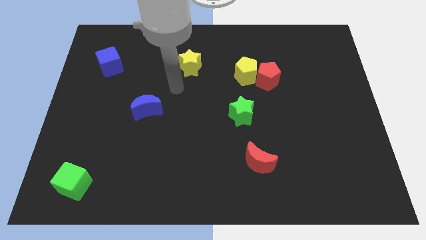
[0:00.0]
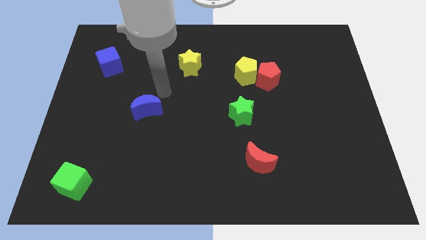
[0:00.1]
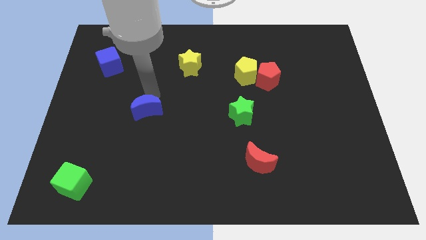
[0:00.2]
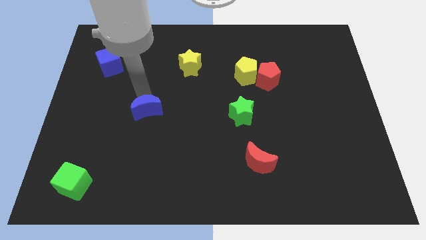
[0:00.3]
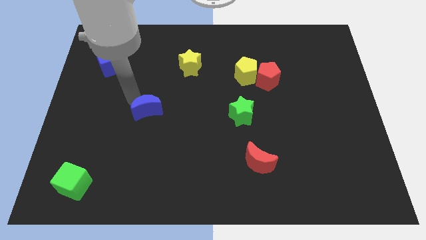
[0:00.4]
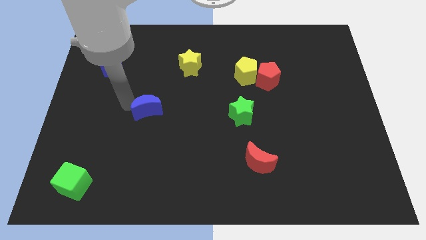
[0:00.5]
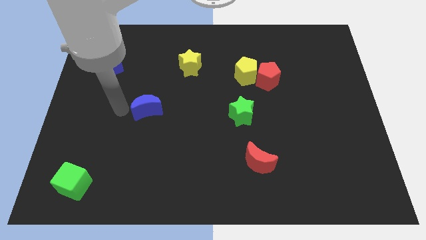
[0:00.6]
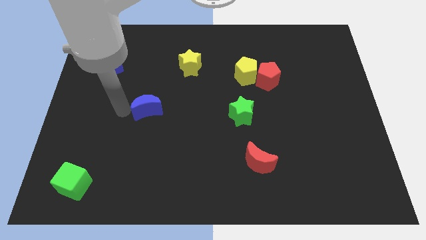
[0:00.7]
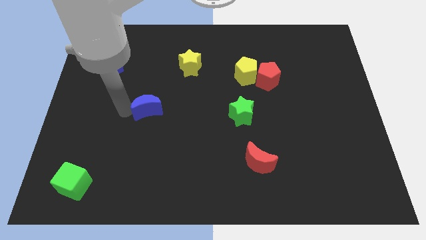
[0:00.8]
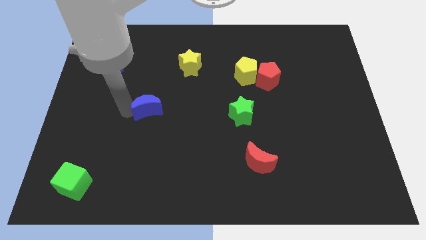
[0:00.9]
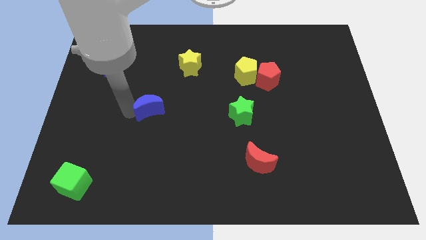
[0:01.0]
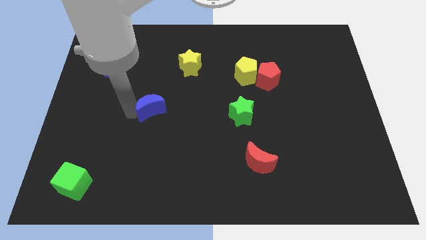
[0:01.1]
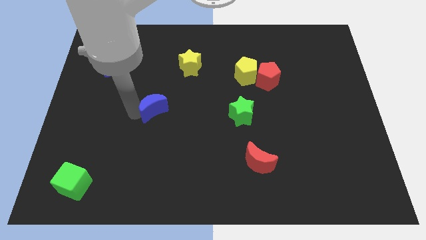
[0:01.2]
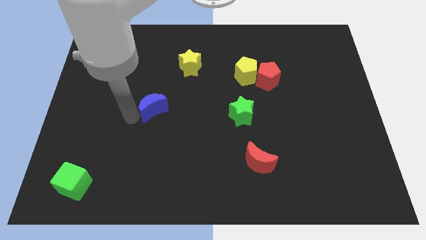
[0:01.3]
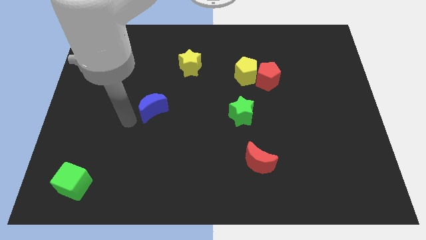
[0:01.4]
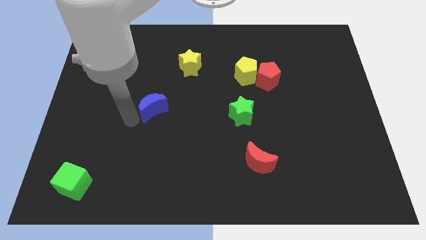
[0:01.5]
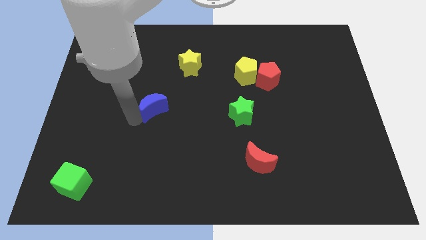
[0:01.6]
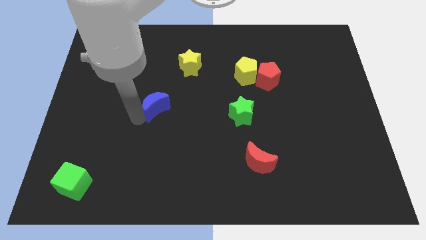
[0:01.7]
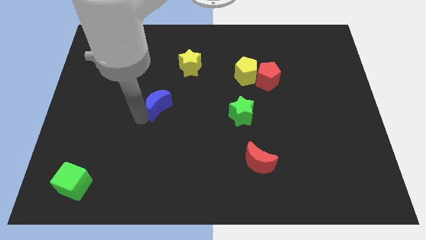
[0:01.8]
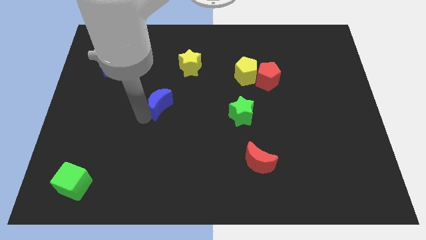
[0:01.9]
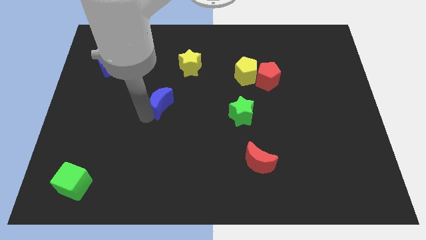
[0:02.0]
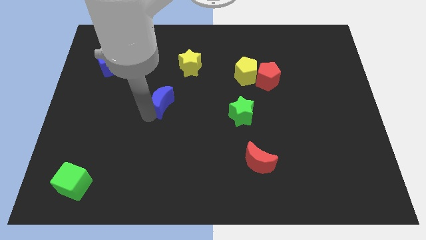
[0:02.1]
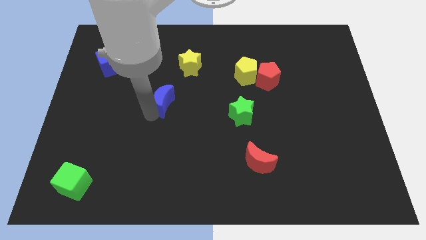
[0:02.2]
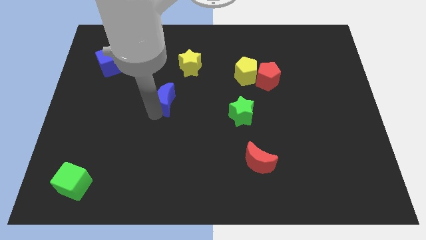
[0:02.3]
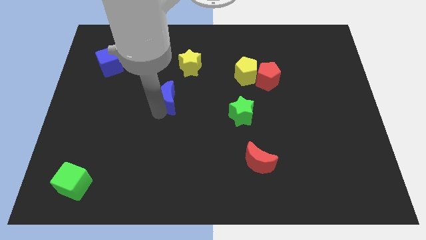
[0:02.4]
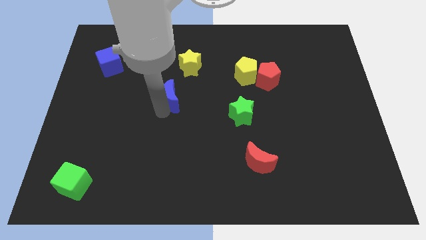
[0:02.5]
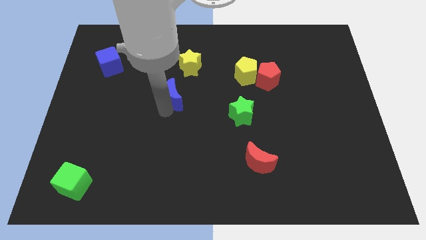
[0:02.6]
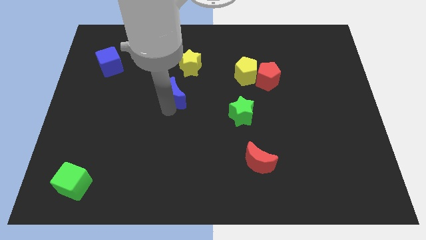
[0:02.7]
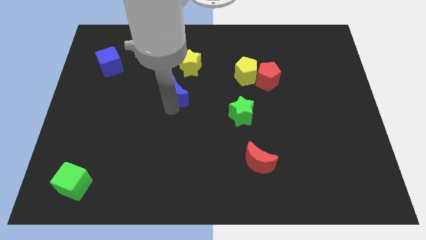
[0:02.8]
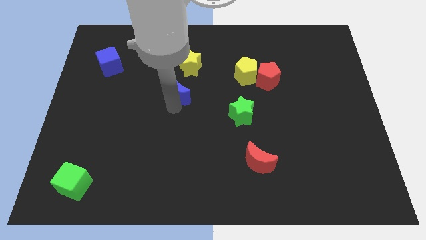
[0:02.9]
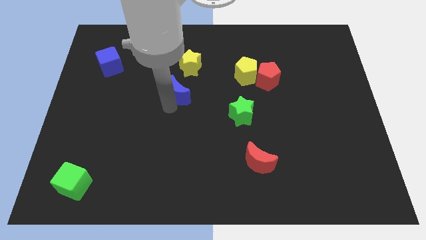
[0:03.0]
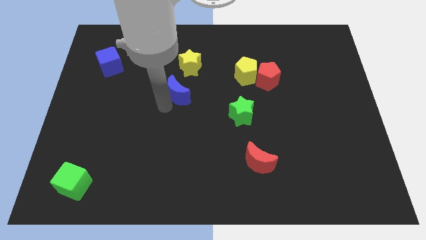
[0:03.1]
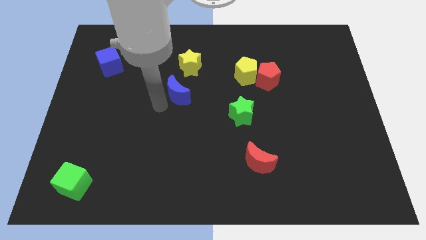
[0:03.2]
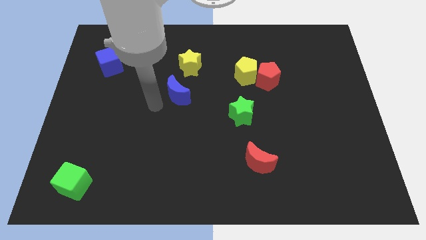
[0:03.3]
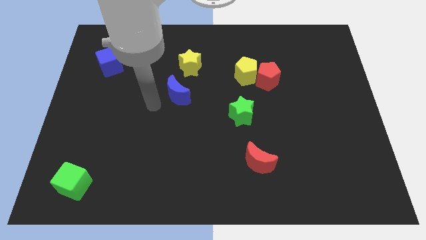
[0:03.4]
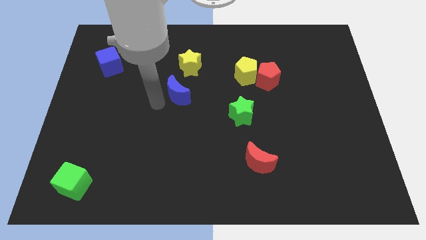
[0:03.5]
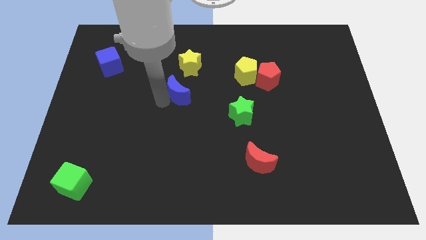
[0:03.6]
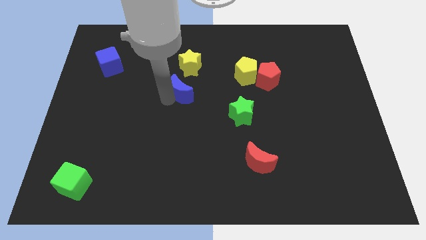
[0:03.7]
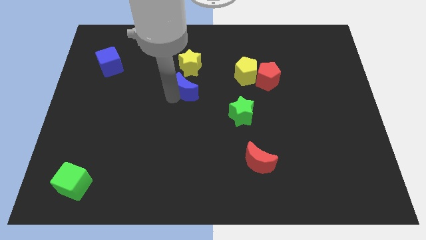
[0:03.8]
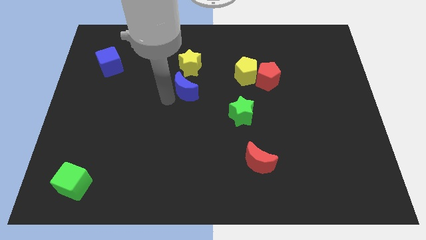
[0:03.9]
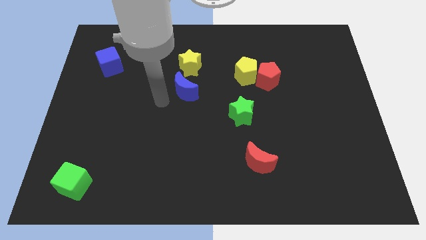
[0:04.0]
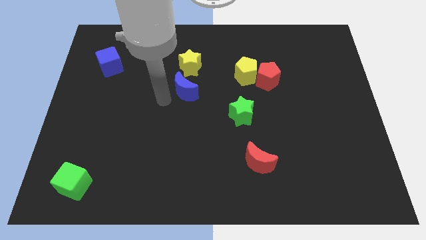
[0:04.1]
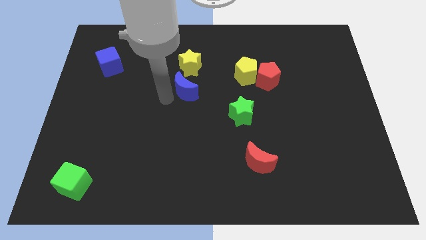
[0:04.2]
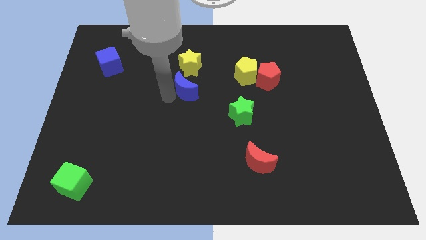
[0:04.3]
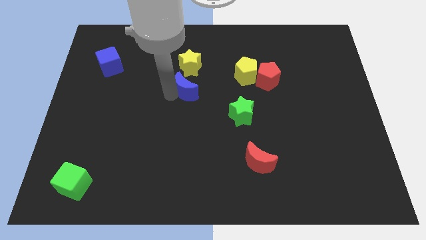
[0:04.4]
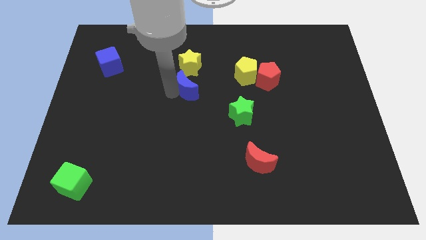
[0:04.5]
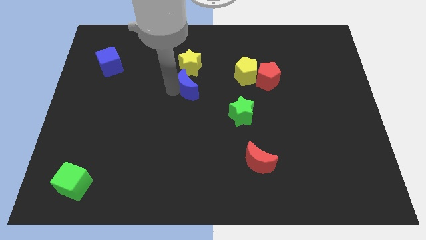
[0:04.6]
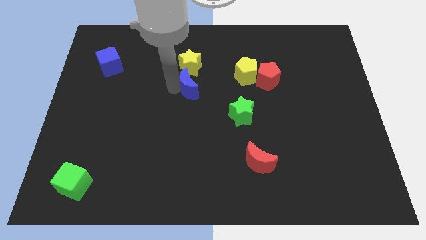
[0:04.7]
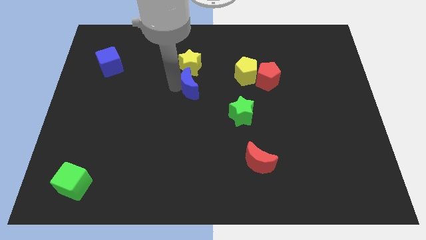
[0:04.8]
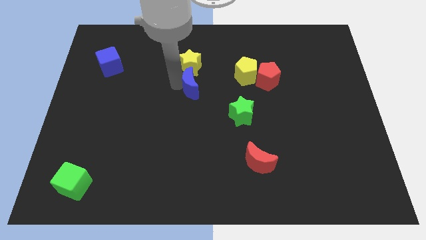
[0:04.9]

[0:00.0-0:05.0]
slide the blue moon diagonally down and to the right of the yellow star

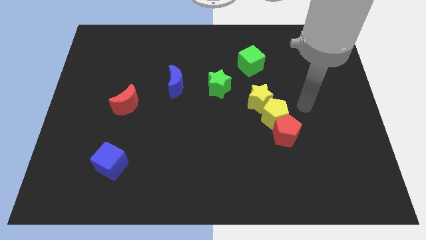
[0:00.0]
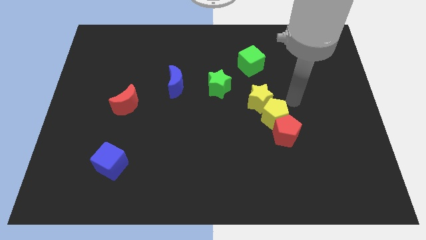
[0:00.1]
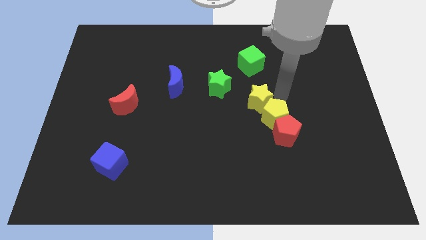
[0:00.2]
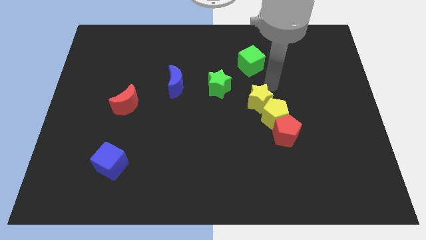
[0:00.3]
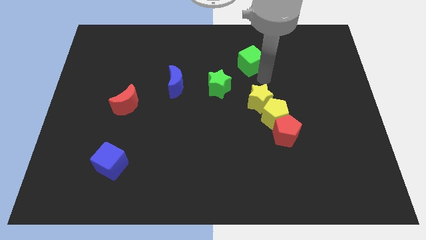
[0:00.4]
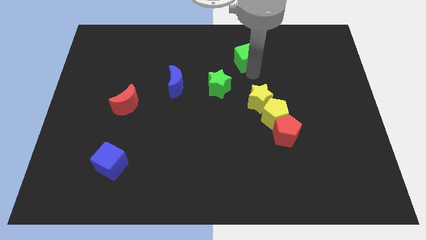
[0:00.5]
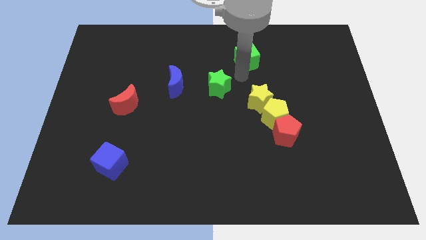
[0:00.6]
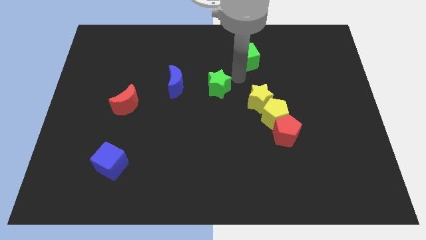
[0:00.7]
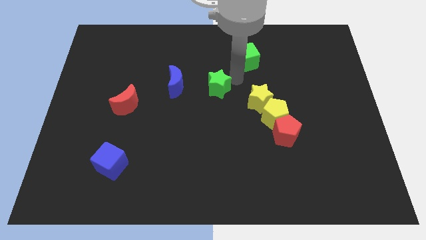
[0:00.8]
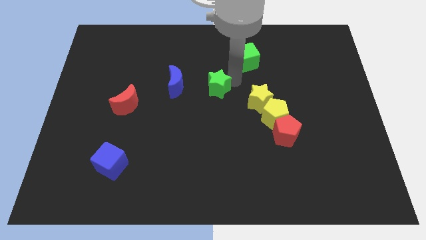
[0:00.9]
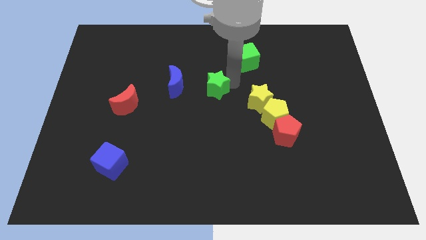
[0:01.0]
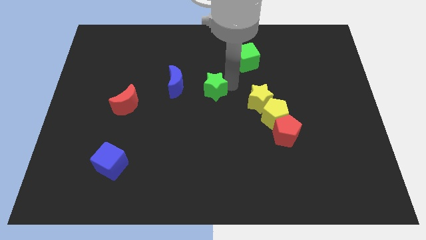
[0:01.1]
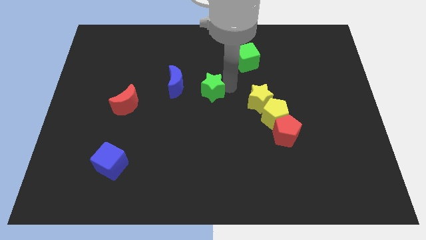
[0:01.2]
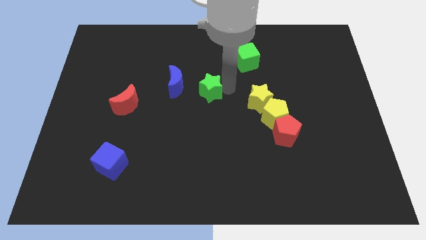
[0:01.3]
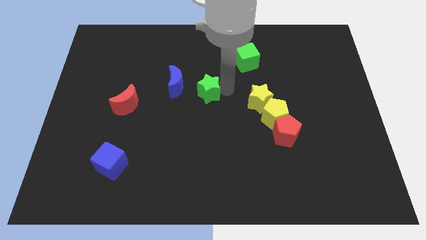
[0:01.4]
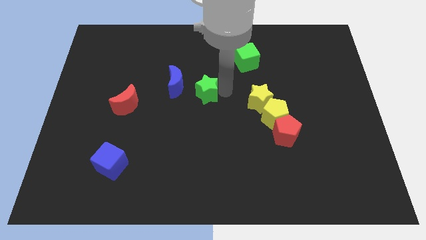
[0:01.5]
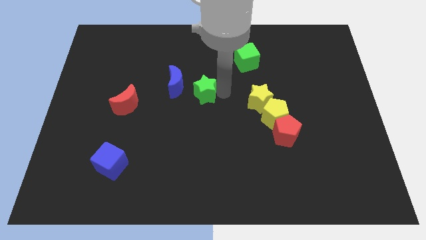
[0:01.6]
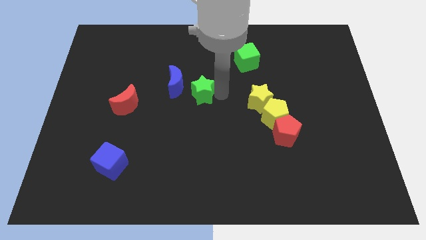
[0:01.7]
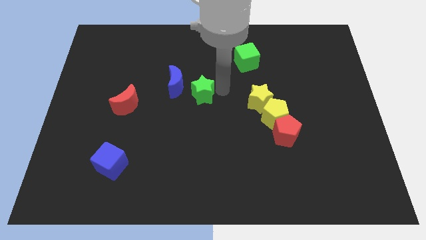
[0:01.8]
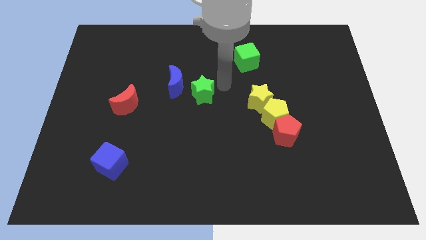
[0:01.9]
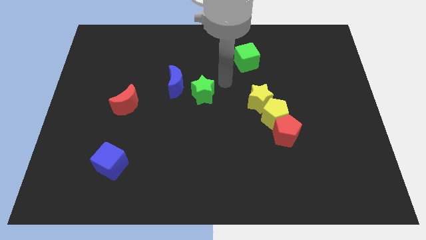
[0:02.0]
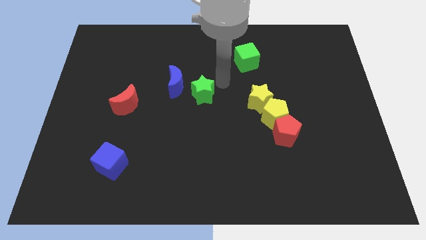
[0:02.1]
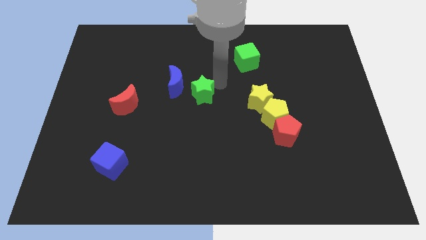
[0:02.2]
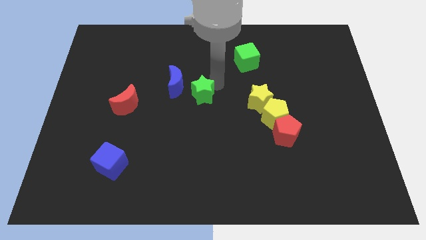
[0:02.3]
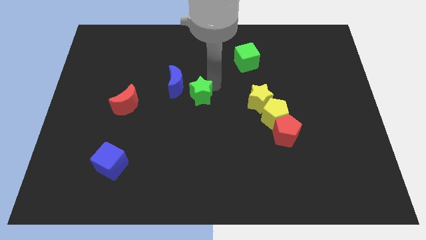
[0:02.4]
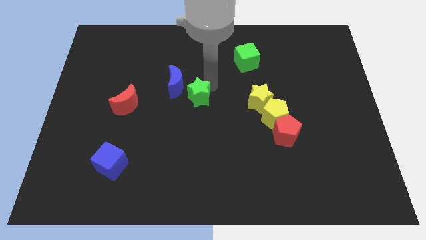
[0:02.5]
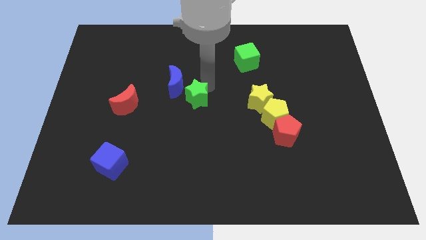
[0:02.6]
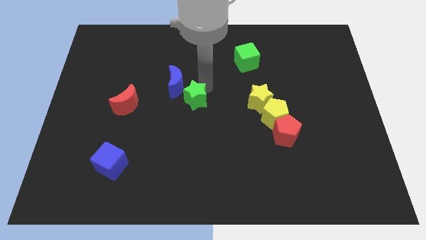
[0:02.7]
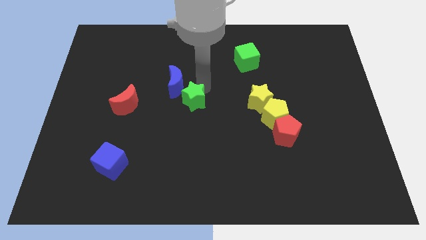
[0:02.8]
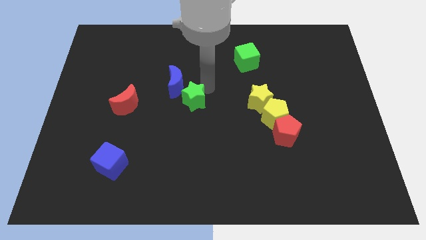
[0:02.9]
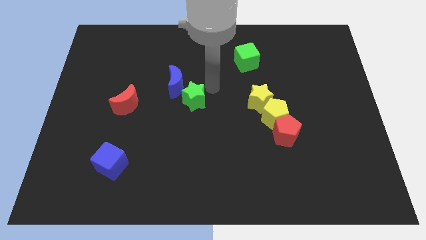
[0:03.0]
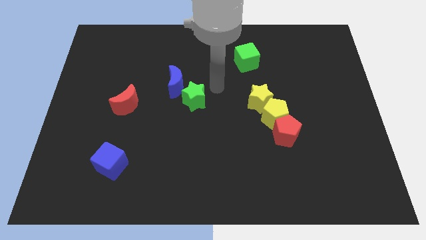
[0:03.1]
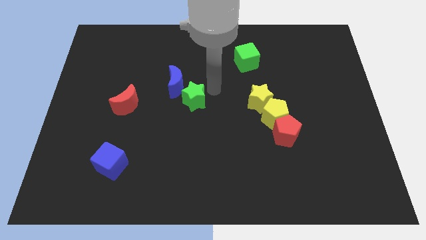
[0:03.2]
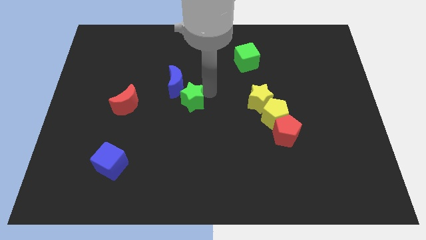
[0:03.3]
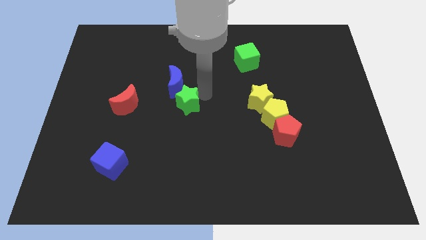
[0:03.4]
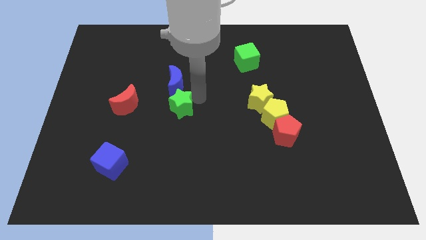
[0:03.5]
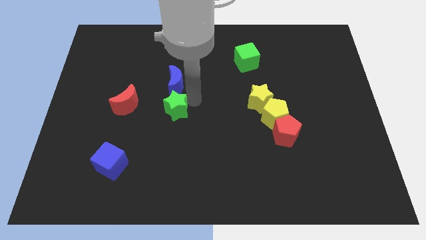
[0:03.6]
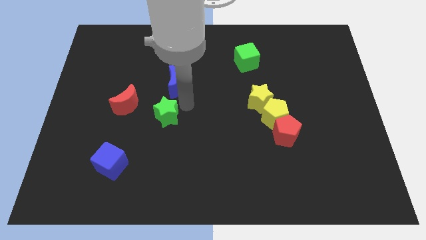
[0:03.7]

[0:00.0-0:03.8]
push the green star to the bottom right of the red moon
